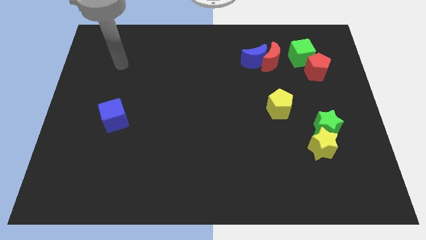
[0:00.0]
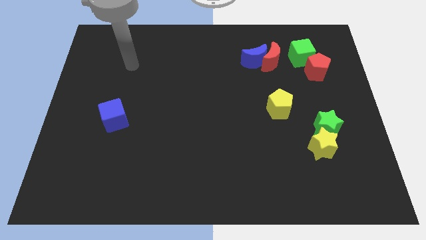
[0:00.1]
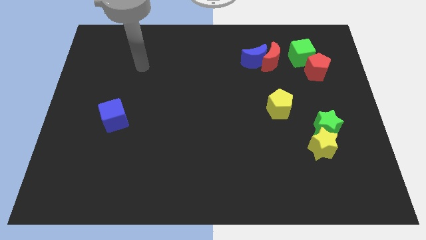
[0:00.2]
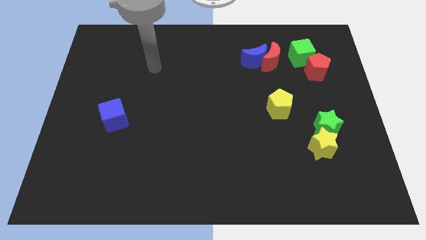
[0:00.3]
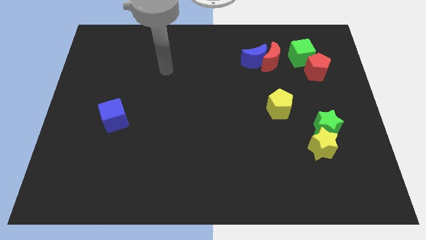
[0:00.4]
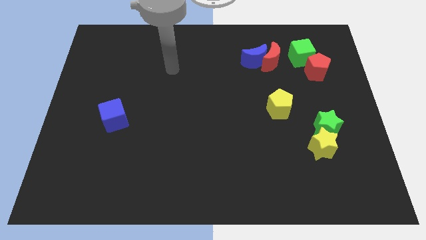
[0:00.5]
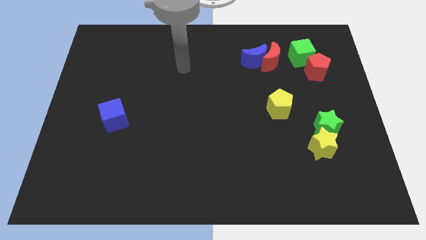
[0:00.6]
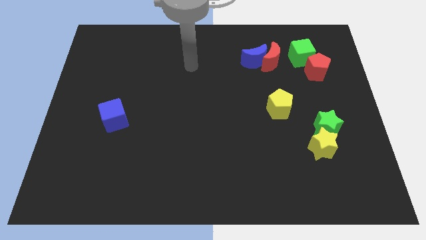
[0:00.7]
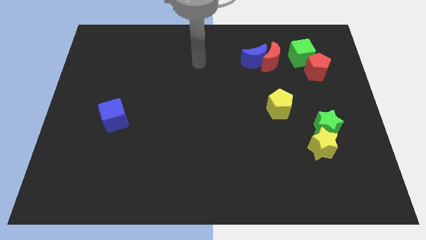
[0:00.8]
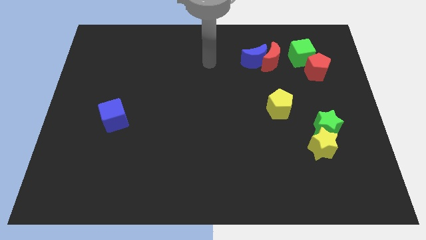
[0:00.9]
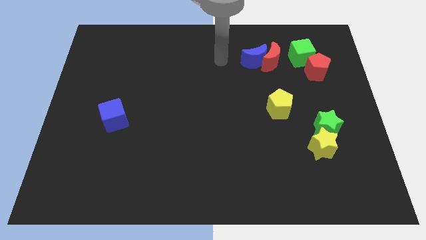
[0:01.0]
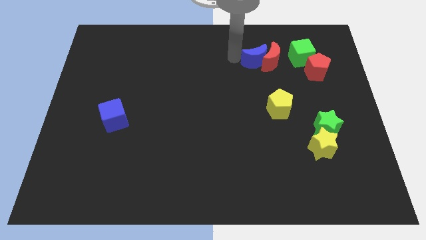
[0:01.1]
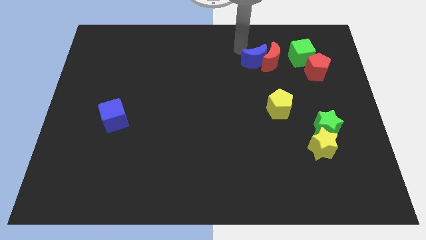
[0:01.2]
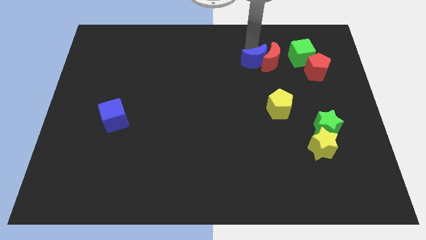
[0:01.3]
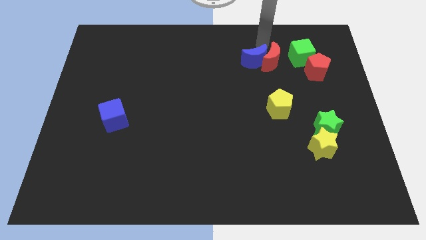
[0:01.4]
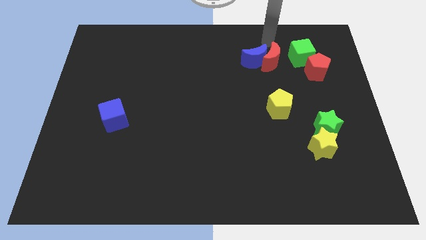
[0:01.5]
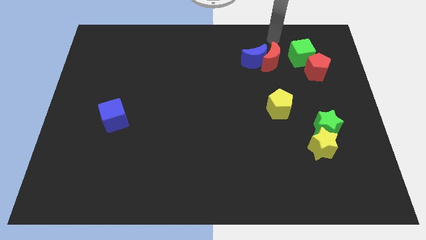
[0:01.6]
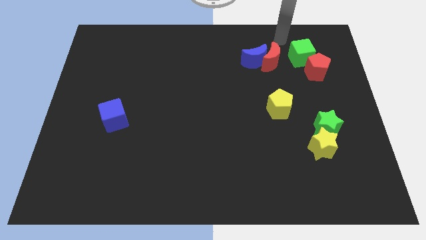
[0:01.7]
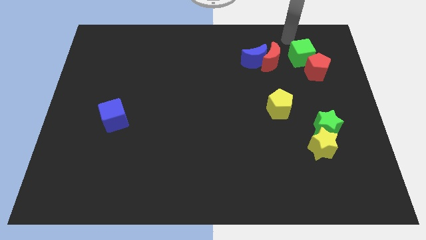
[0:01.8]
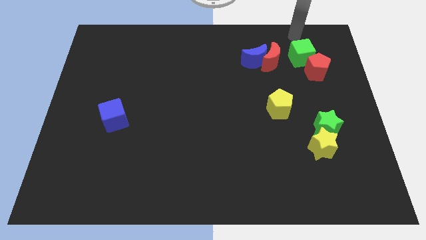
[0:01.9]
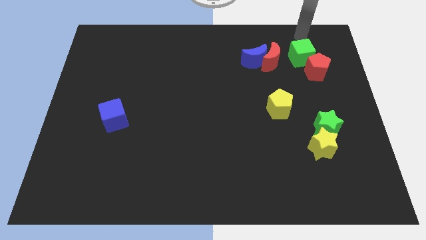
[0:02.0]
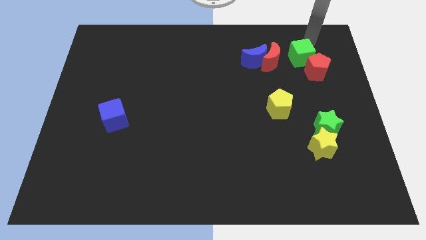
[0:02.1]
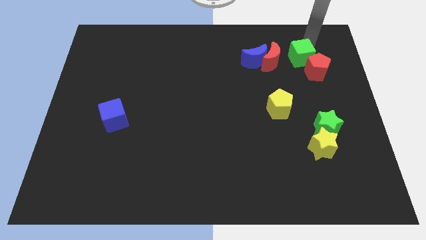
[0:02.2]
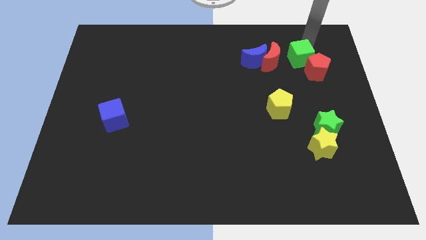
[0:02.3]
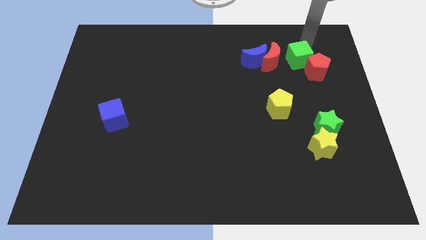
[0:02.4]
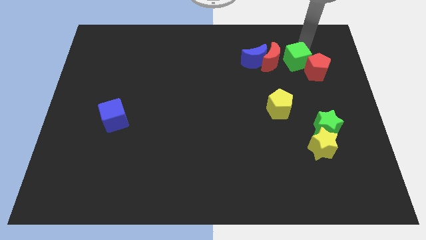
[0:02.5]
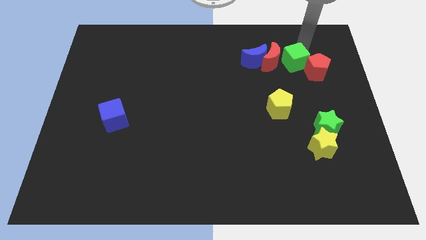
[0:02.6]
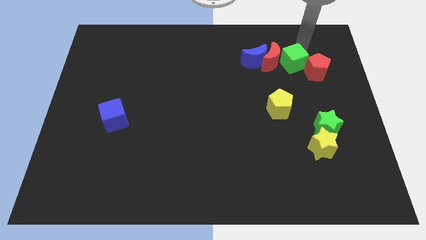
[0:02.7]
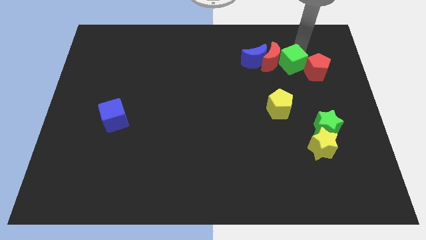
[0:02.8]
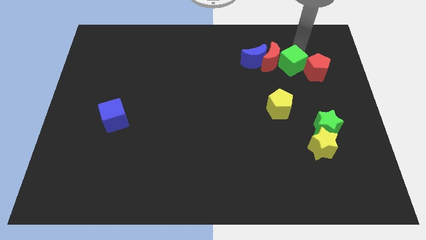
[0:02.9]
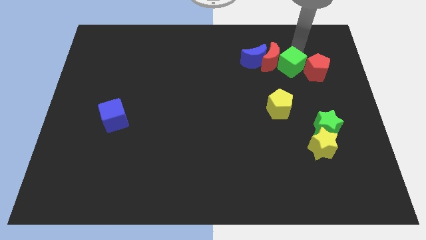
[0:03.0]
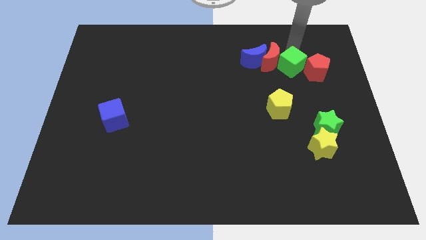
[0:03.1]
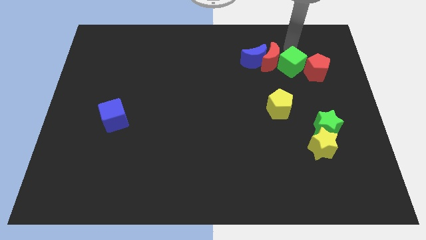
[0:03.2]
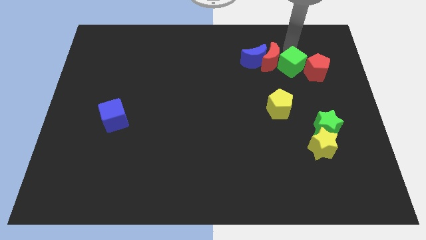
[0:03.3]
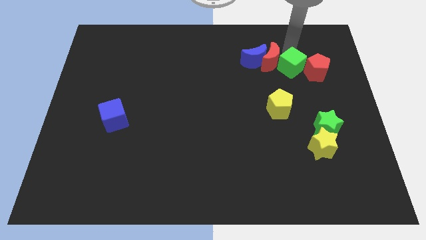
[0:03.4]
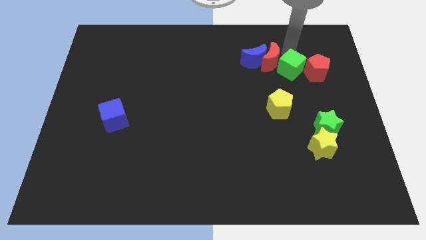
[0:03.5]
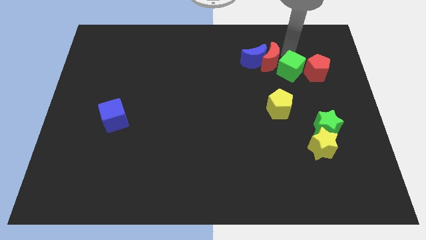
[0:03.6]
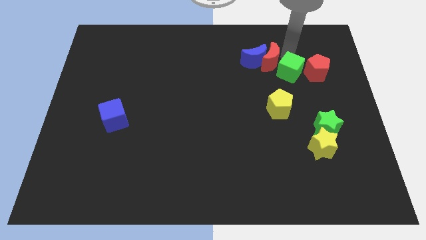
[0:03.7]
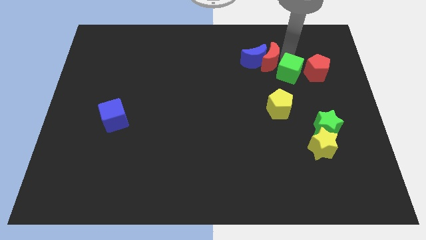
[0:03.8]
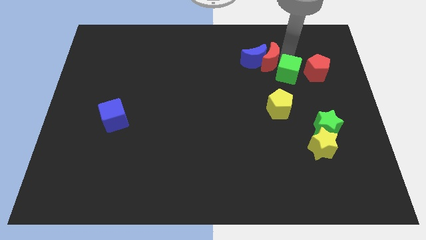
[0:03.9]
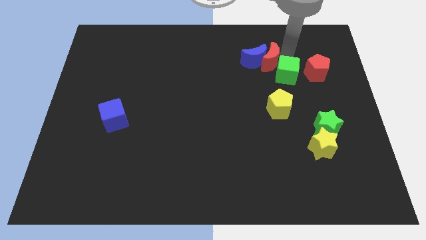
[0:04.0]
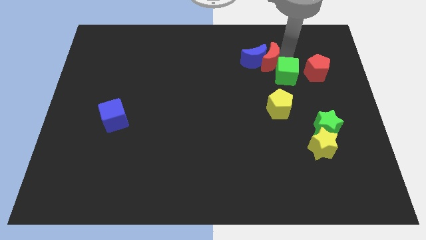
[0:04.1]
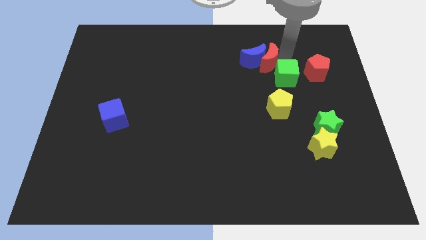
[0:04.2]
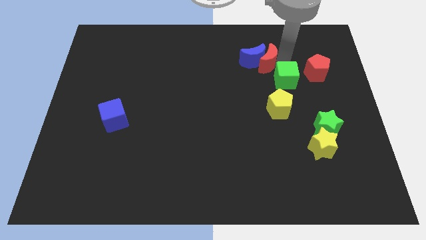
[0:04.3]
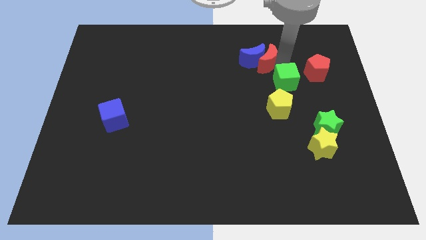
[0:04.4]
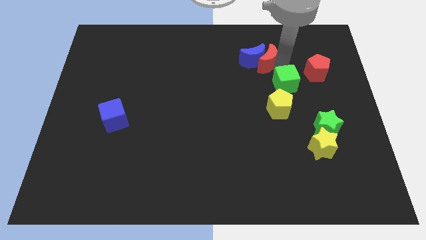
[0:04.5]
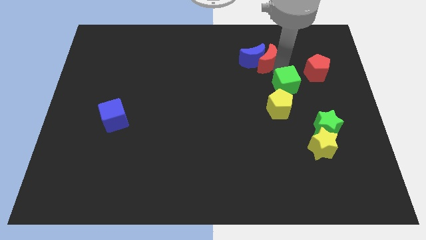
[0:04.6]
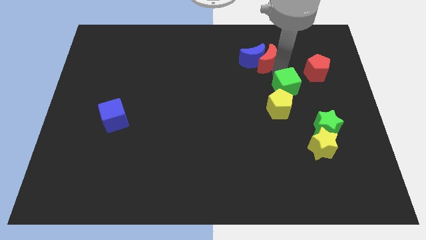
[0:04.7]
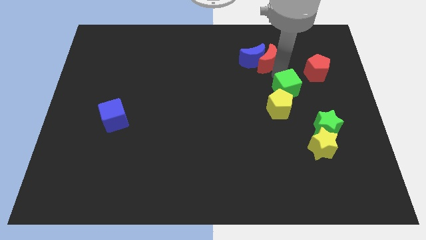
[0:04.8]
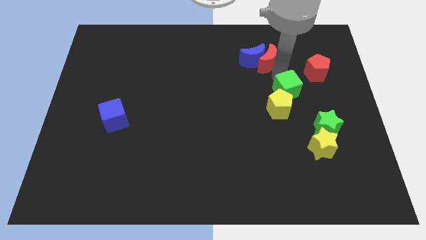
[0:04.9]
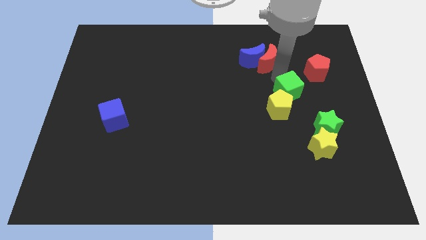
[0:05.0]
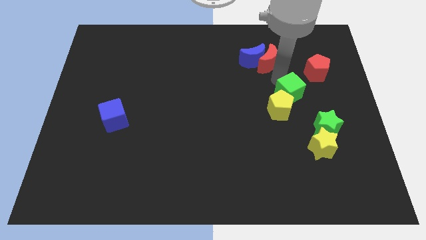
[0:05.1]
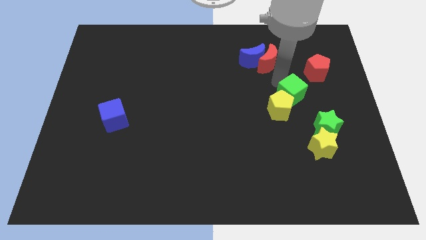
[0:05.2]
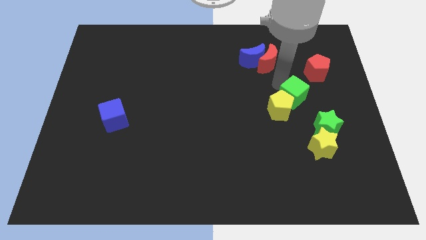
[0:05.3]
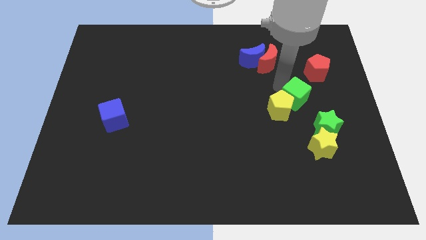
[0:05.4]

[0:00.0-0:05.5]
put the green cube above the yellow star

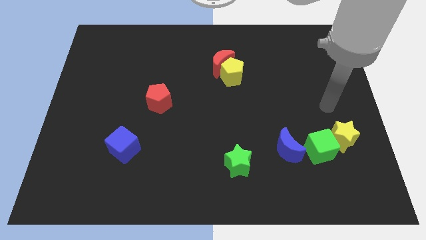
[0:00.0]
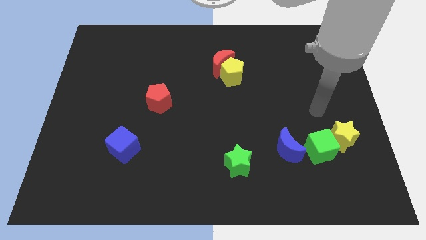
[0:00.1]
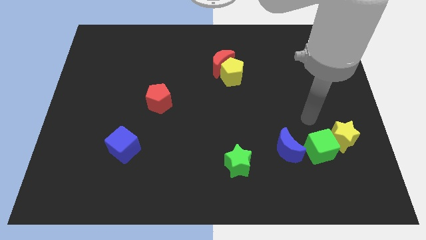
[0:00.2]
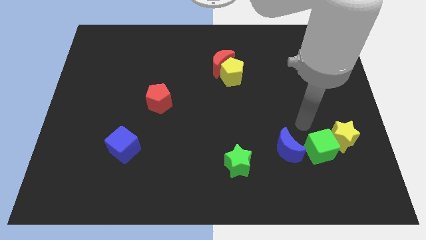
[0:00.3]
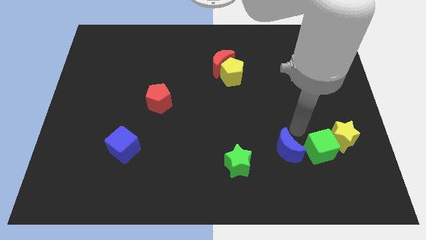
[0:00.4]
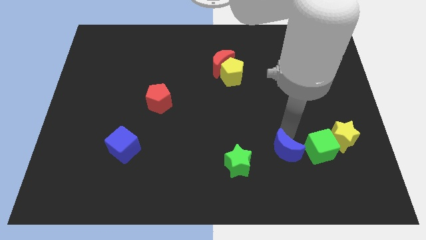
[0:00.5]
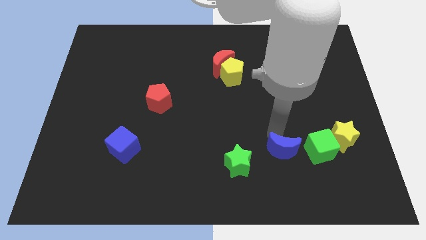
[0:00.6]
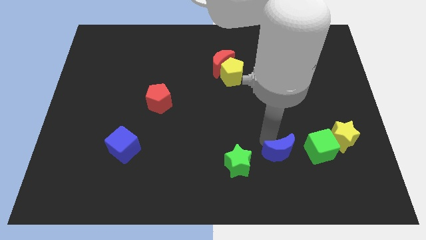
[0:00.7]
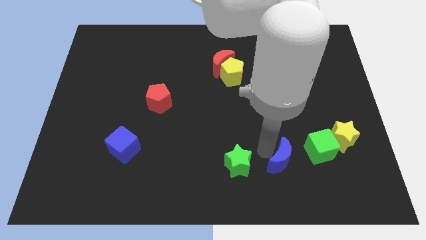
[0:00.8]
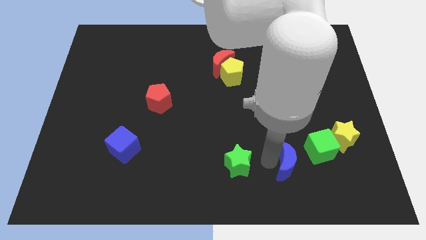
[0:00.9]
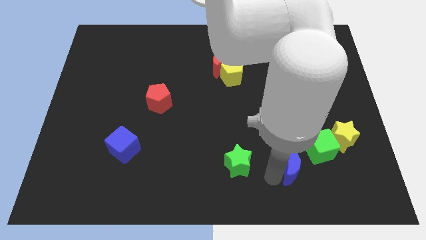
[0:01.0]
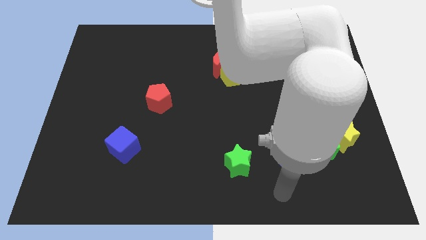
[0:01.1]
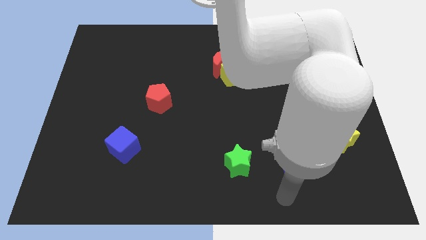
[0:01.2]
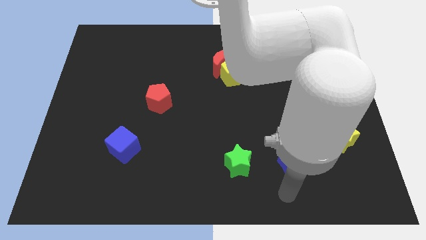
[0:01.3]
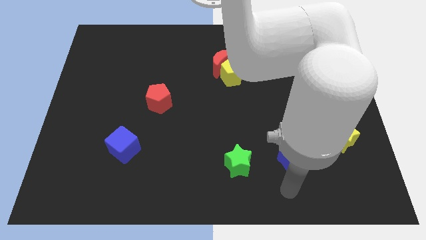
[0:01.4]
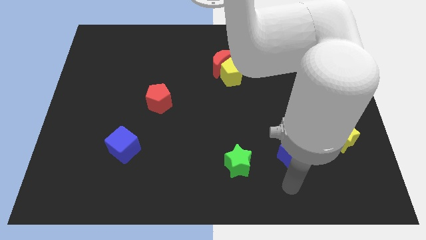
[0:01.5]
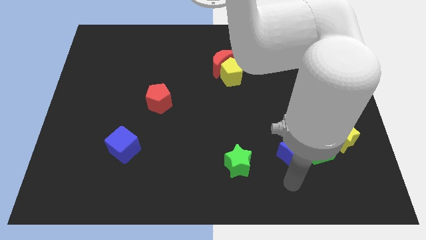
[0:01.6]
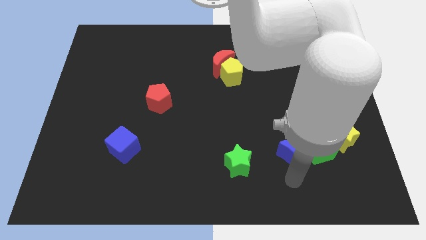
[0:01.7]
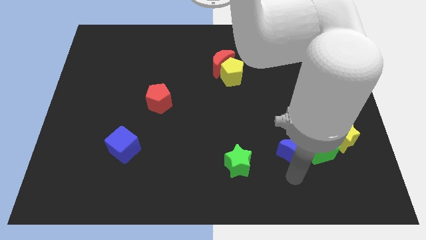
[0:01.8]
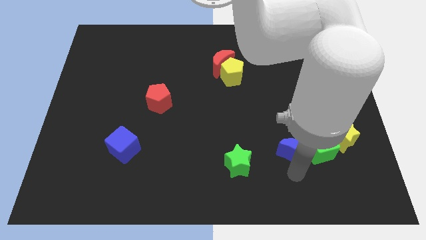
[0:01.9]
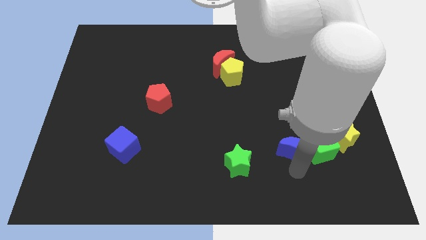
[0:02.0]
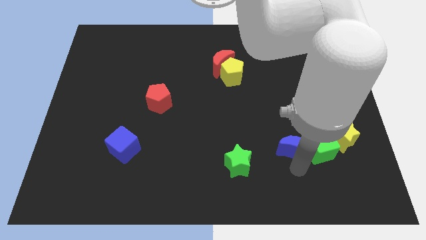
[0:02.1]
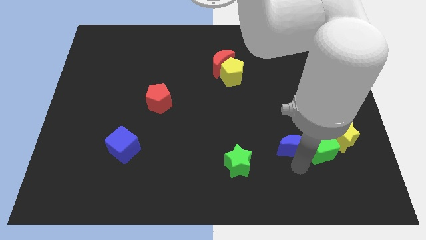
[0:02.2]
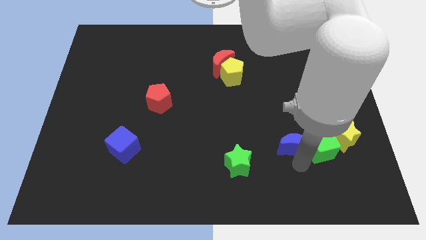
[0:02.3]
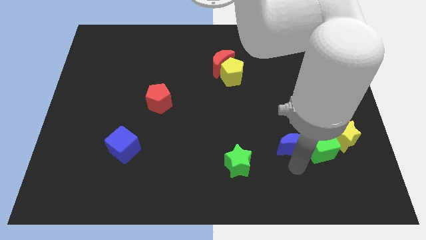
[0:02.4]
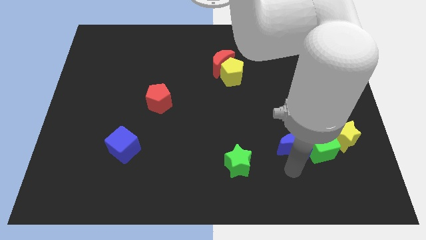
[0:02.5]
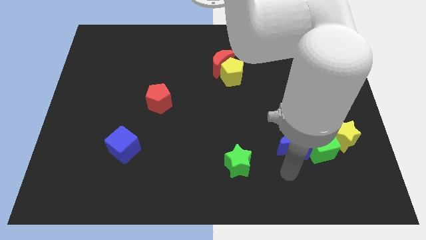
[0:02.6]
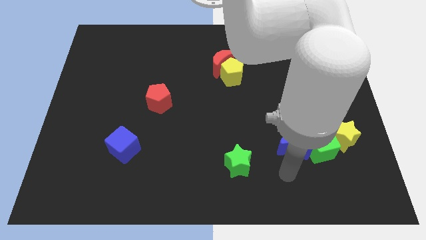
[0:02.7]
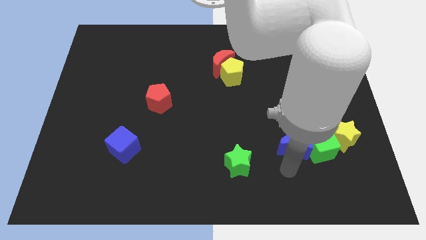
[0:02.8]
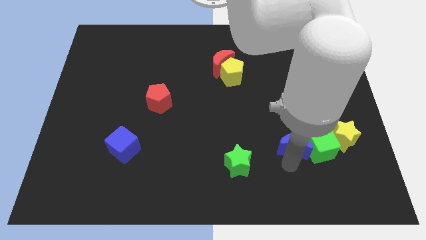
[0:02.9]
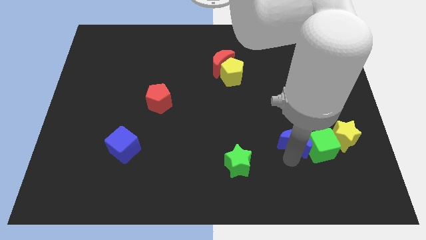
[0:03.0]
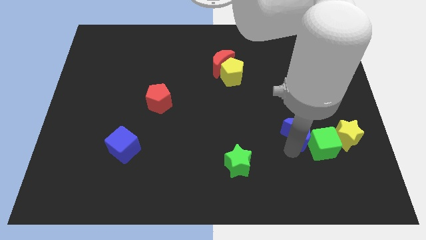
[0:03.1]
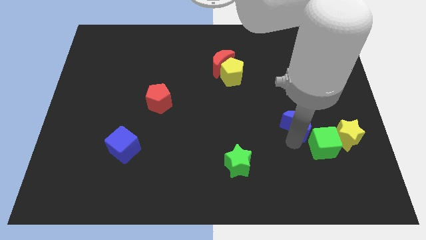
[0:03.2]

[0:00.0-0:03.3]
slide the blue moon to the top of the green cube
